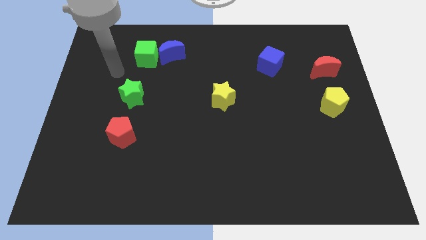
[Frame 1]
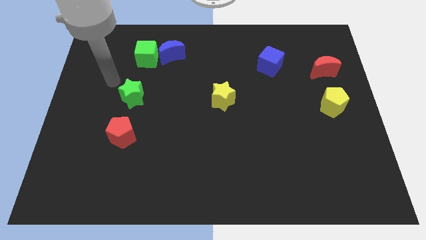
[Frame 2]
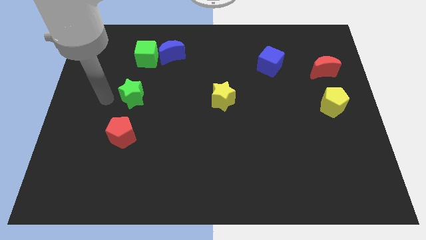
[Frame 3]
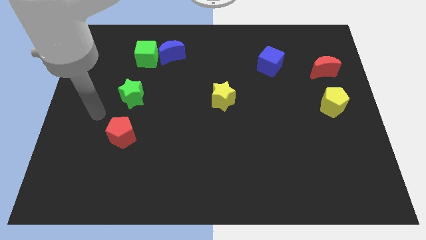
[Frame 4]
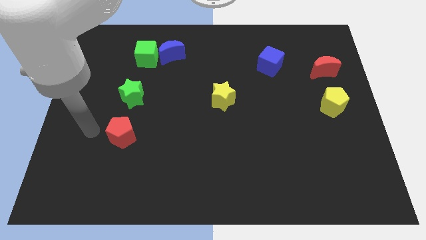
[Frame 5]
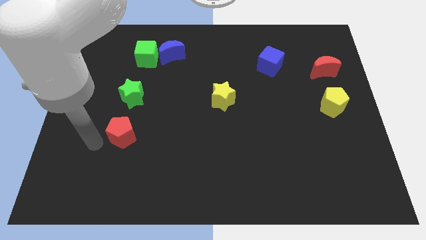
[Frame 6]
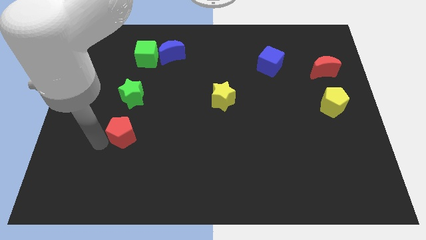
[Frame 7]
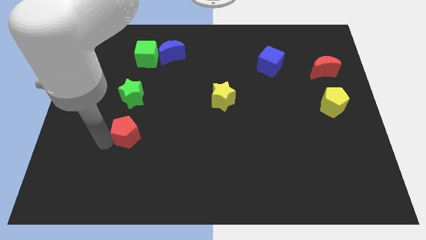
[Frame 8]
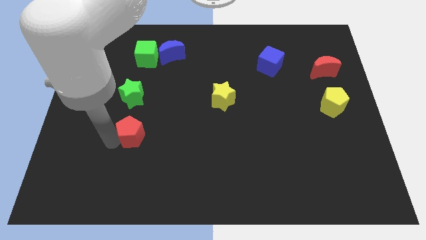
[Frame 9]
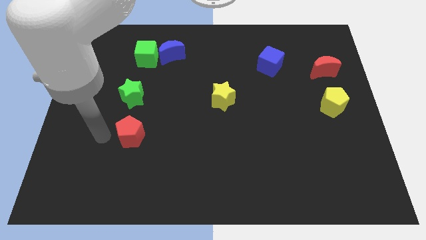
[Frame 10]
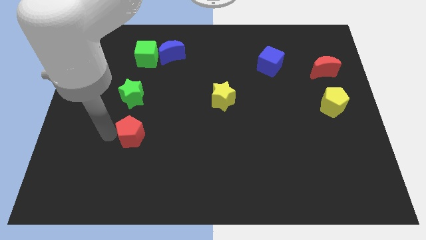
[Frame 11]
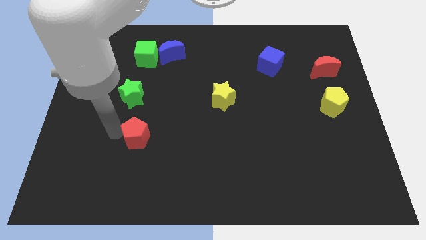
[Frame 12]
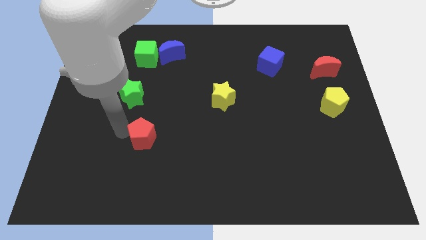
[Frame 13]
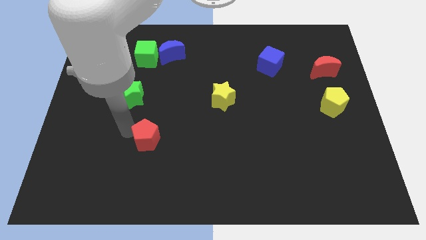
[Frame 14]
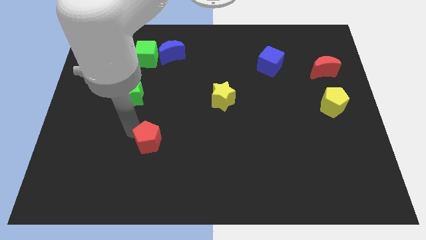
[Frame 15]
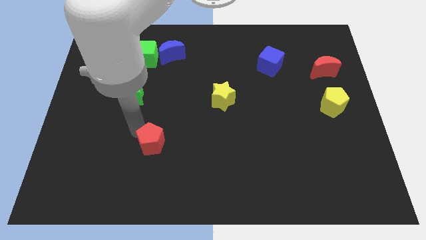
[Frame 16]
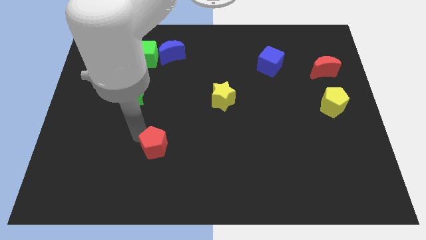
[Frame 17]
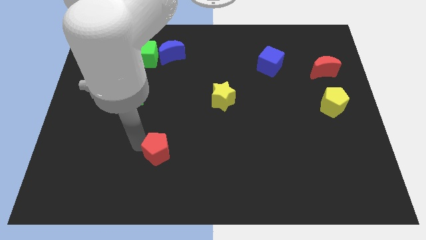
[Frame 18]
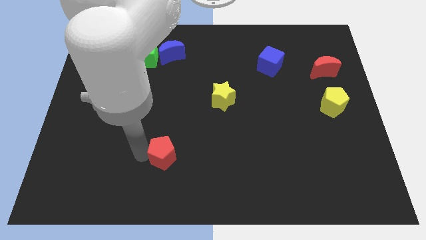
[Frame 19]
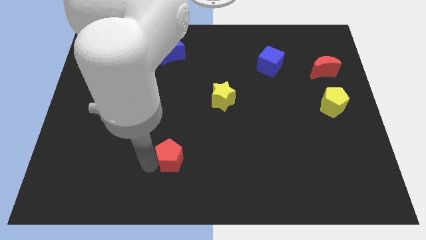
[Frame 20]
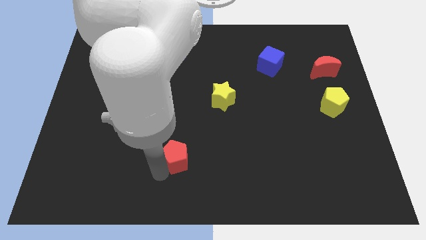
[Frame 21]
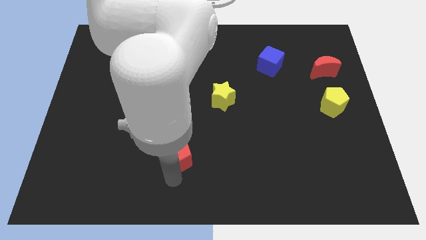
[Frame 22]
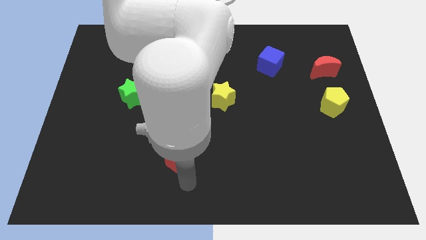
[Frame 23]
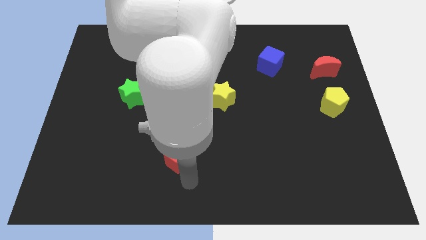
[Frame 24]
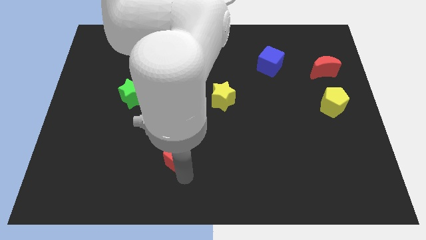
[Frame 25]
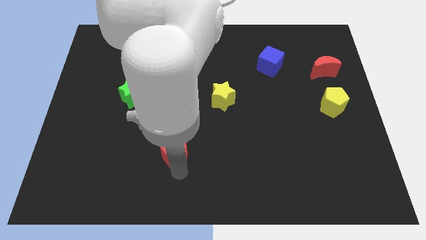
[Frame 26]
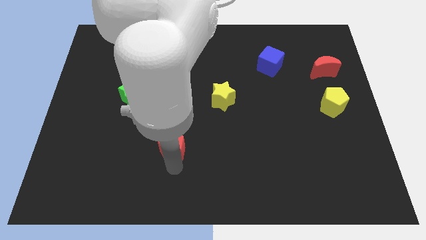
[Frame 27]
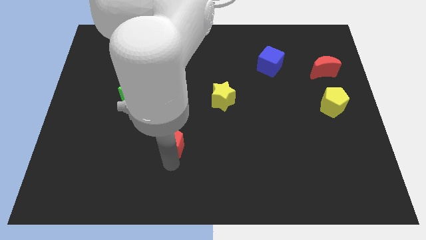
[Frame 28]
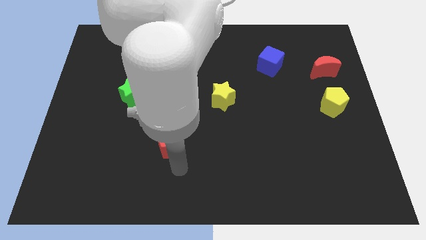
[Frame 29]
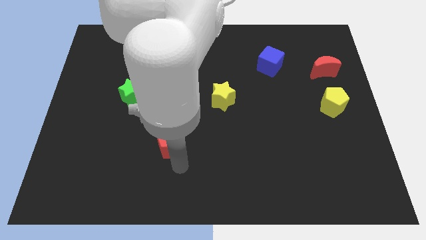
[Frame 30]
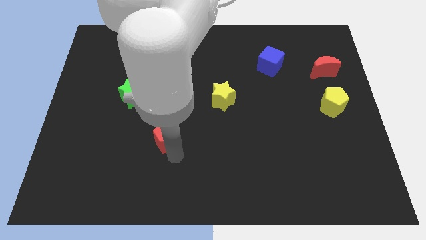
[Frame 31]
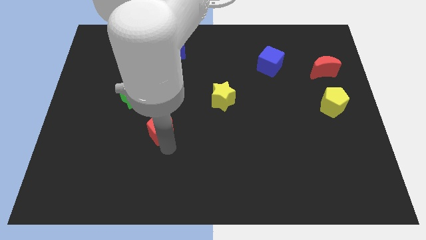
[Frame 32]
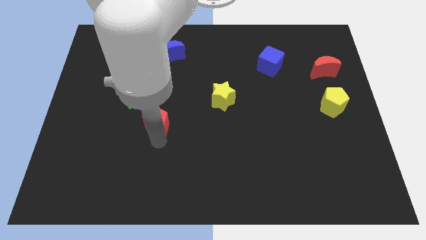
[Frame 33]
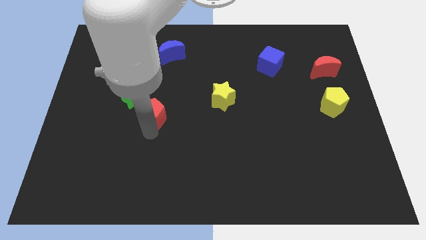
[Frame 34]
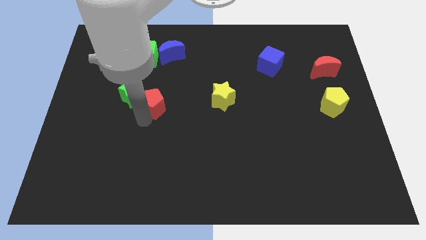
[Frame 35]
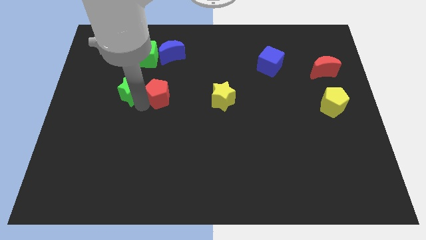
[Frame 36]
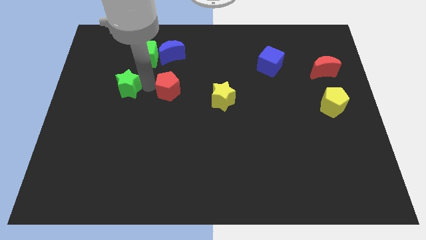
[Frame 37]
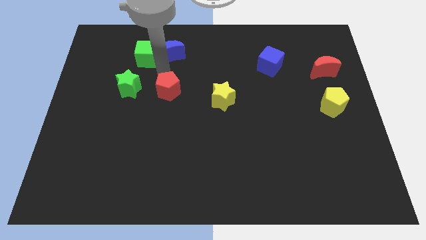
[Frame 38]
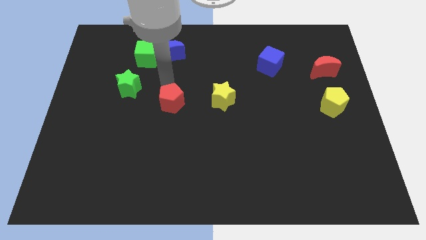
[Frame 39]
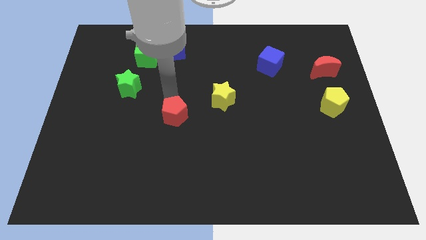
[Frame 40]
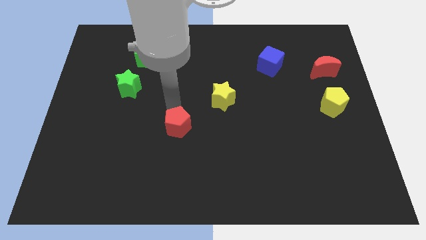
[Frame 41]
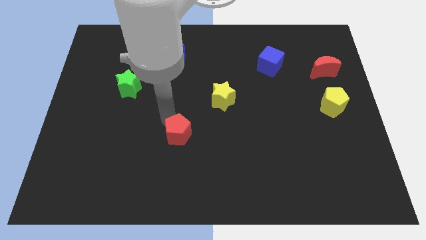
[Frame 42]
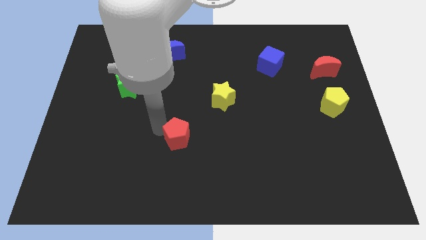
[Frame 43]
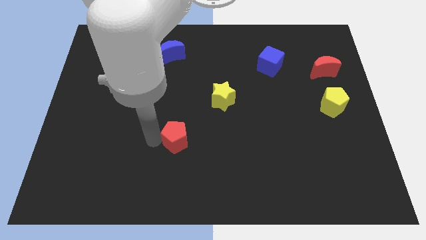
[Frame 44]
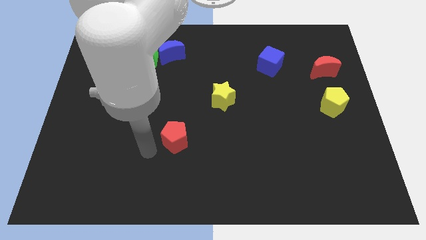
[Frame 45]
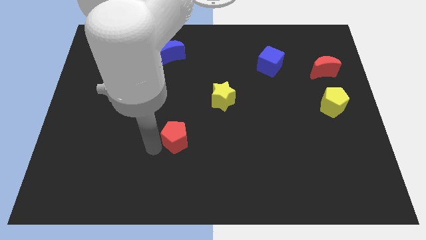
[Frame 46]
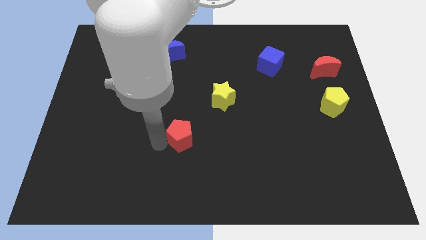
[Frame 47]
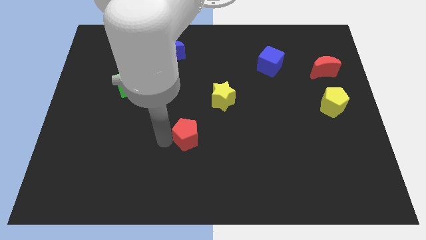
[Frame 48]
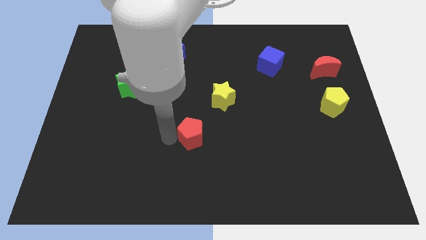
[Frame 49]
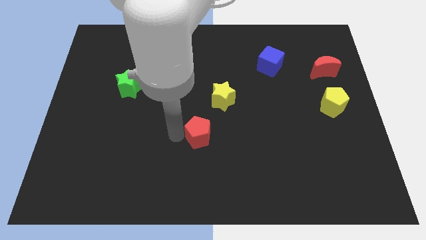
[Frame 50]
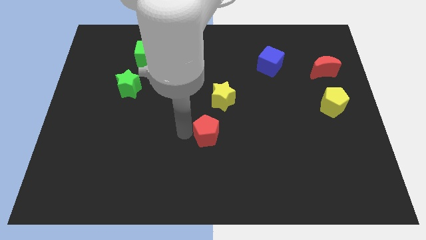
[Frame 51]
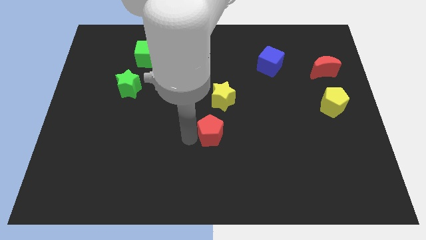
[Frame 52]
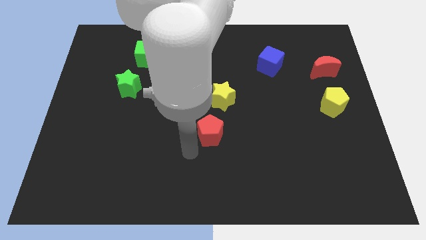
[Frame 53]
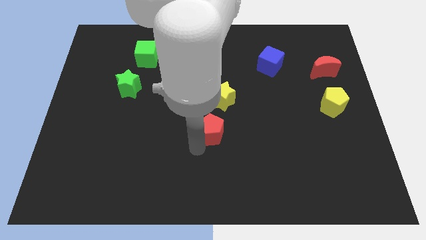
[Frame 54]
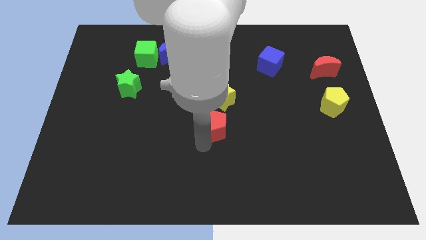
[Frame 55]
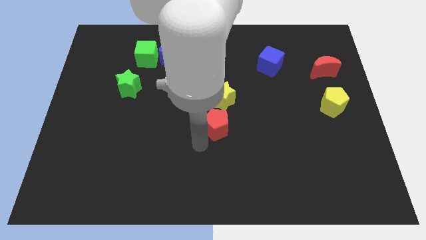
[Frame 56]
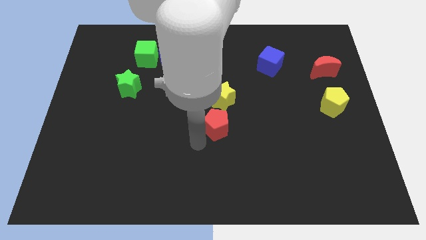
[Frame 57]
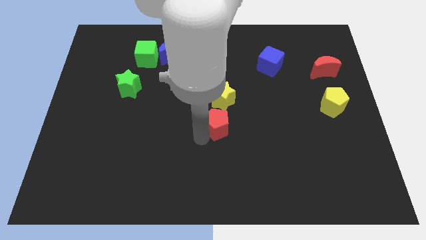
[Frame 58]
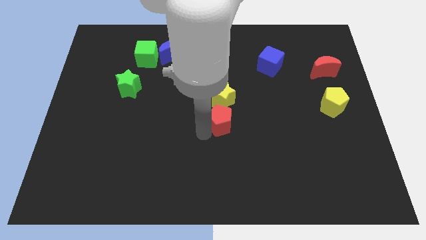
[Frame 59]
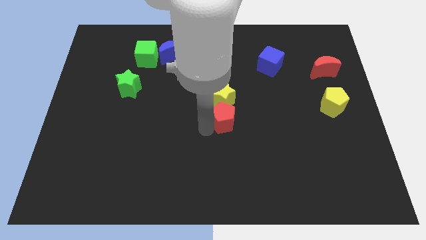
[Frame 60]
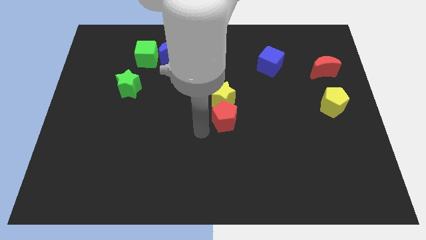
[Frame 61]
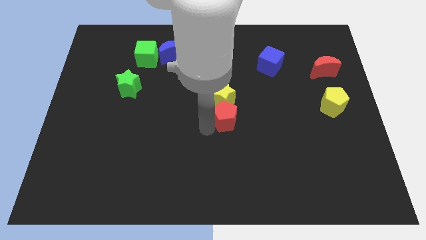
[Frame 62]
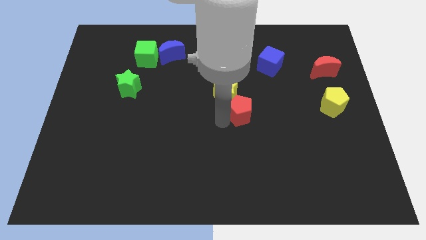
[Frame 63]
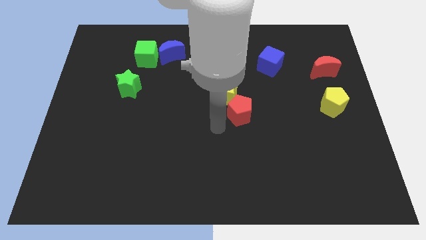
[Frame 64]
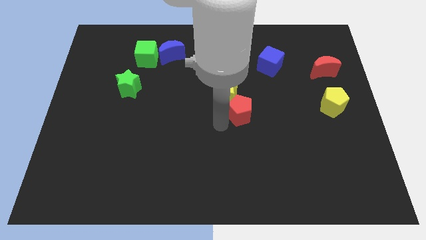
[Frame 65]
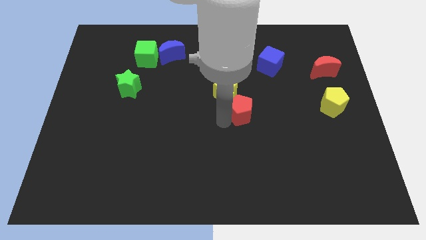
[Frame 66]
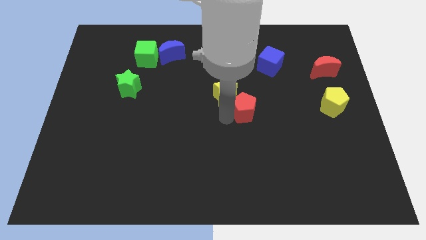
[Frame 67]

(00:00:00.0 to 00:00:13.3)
push the red pentagon just right of the yellow star

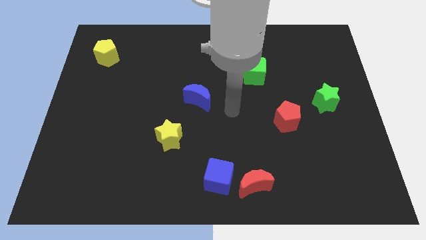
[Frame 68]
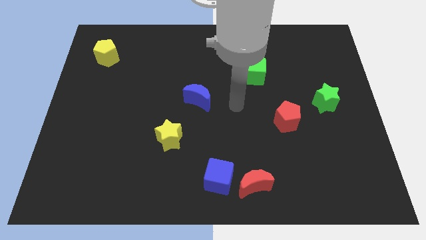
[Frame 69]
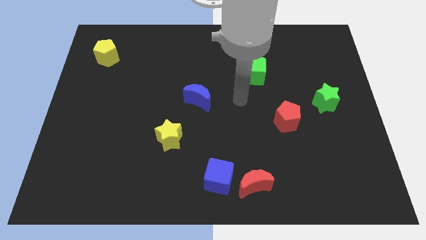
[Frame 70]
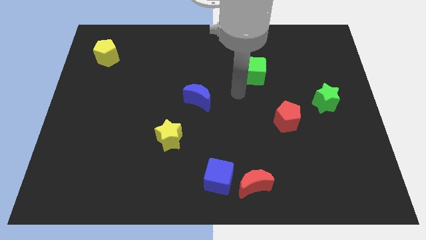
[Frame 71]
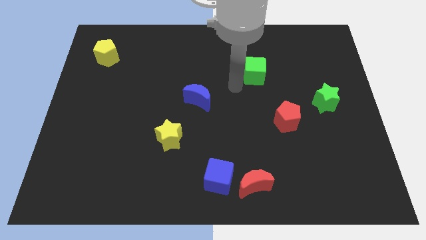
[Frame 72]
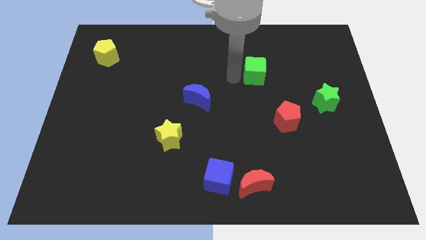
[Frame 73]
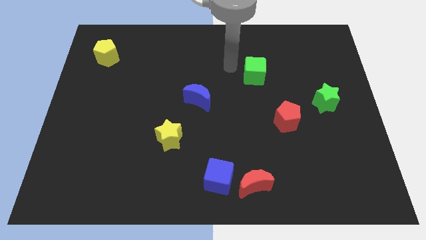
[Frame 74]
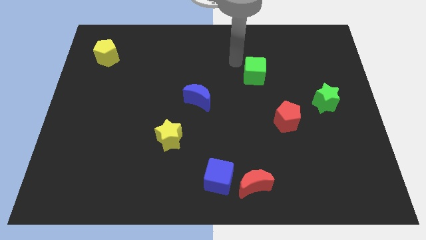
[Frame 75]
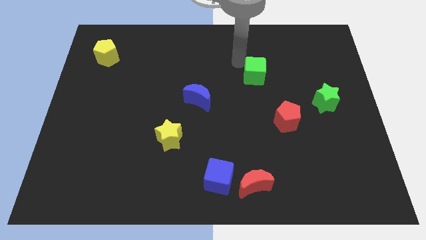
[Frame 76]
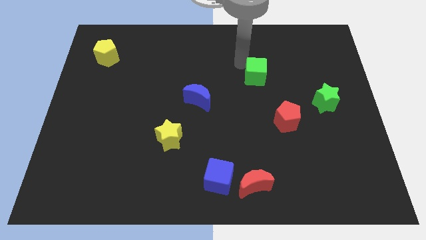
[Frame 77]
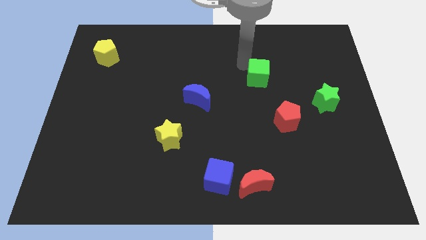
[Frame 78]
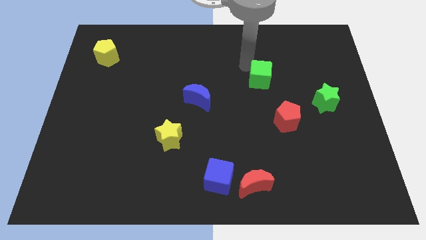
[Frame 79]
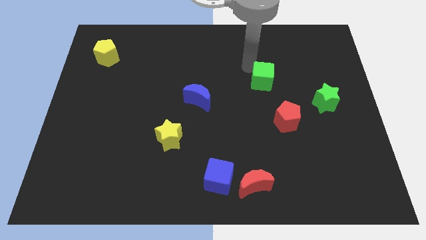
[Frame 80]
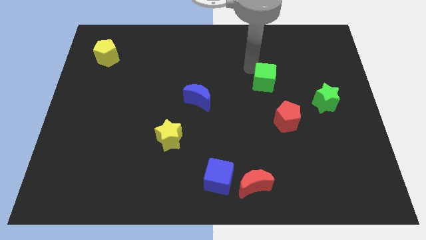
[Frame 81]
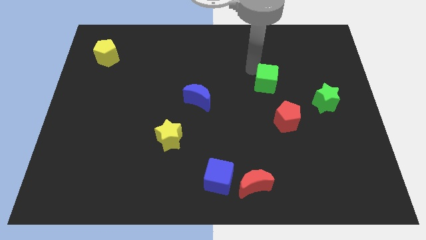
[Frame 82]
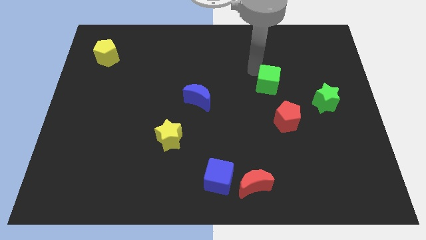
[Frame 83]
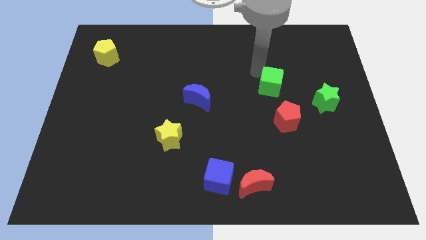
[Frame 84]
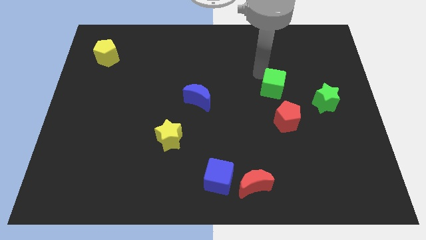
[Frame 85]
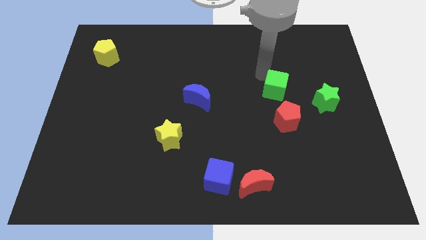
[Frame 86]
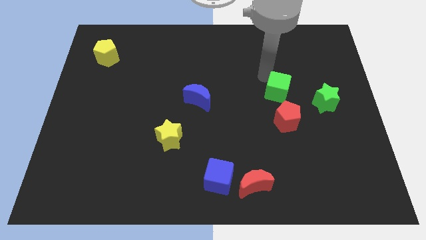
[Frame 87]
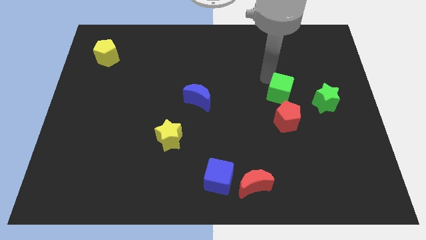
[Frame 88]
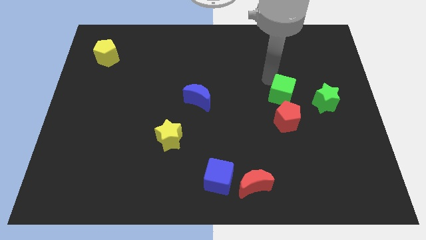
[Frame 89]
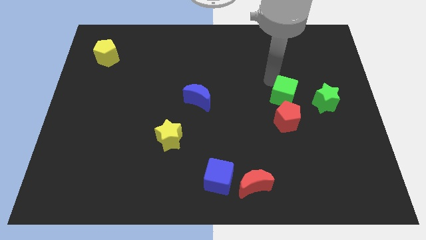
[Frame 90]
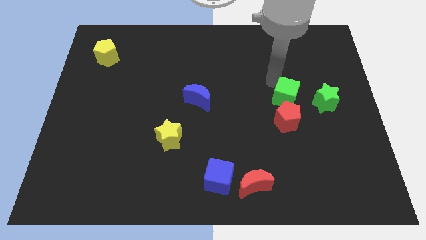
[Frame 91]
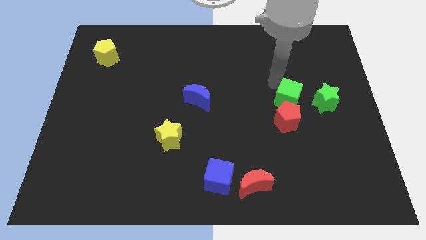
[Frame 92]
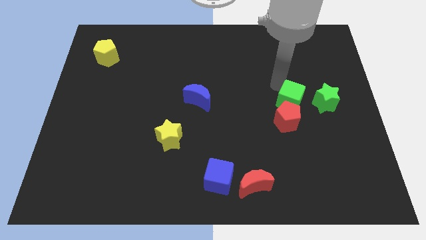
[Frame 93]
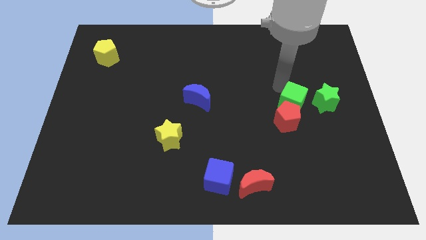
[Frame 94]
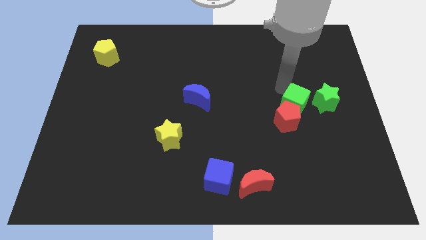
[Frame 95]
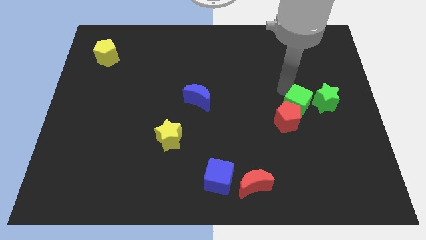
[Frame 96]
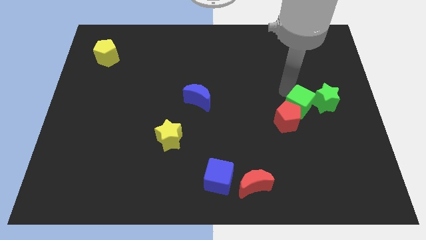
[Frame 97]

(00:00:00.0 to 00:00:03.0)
put the green cube just right of the red pentagon
